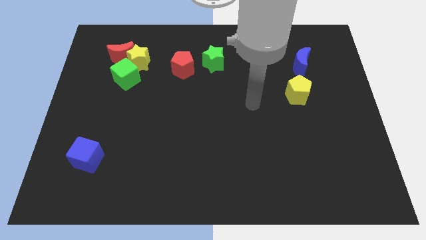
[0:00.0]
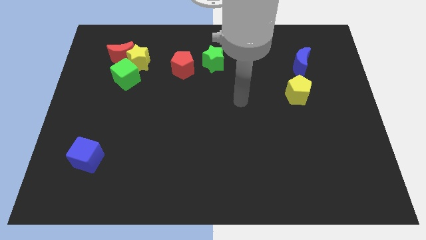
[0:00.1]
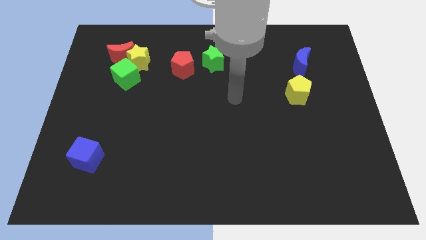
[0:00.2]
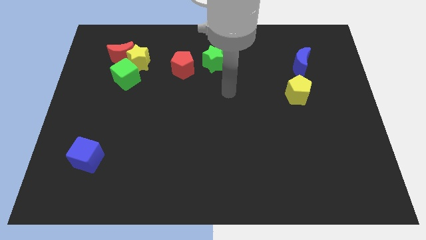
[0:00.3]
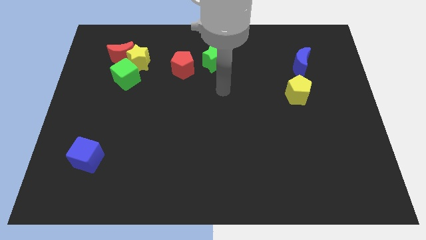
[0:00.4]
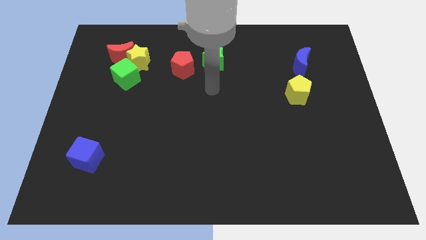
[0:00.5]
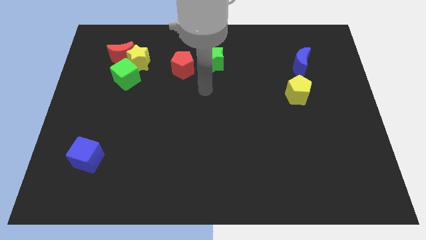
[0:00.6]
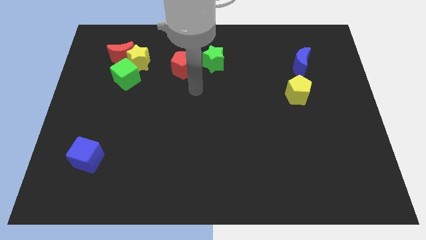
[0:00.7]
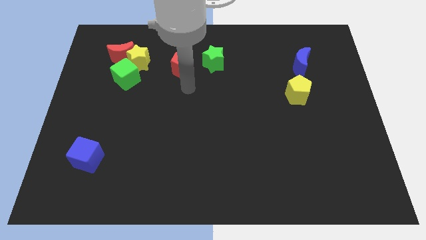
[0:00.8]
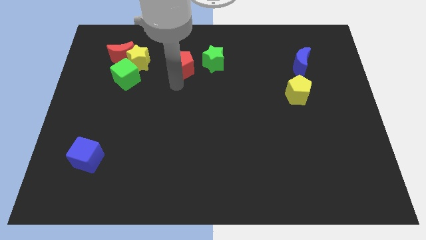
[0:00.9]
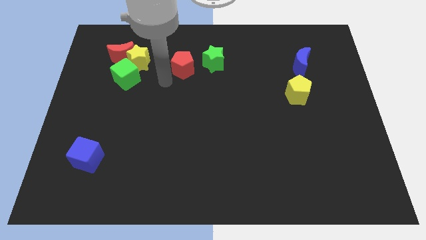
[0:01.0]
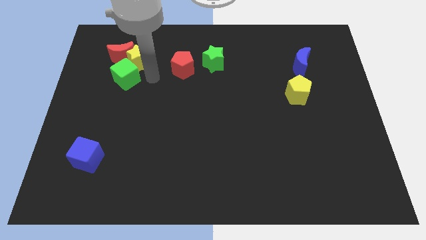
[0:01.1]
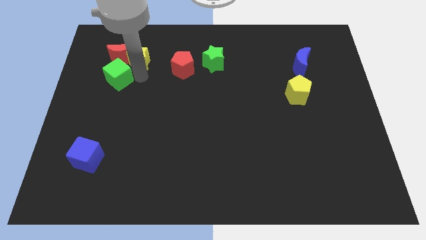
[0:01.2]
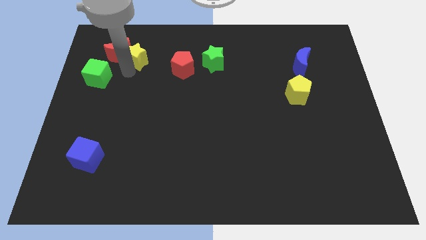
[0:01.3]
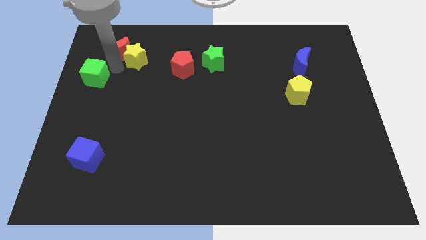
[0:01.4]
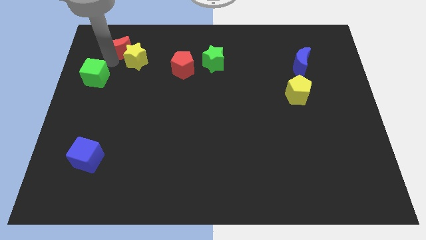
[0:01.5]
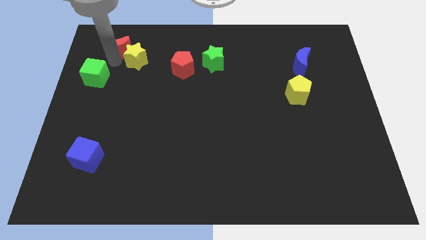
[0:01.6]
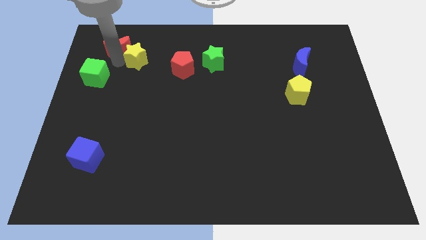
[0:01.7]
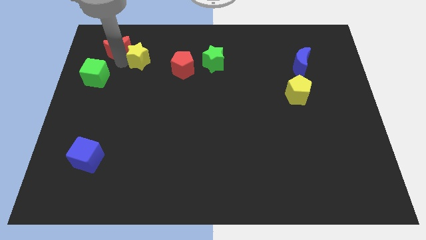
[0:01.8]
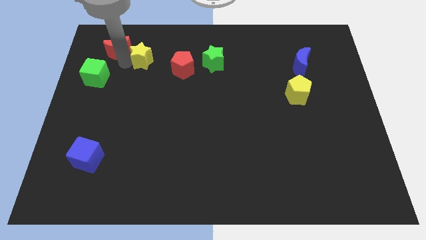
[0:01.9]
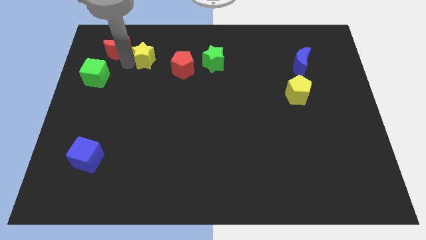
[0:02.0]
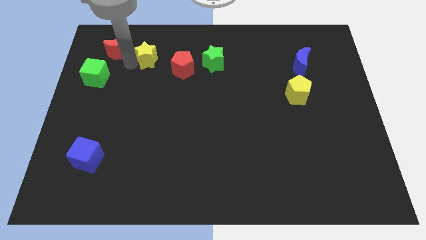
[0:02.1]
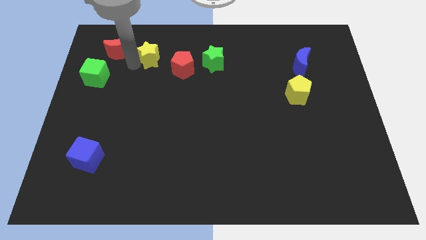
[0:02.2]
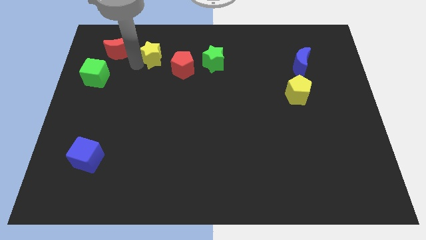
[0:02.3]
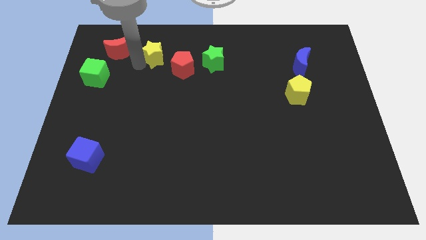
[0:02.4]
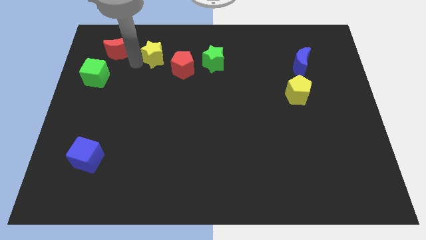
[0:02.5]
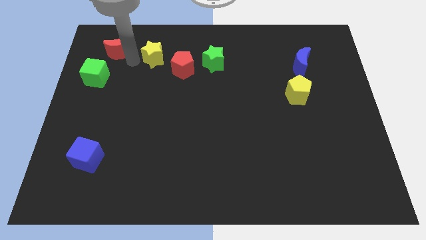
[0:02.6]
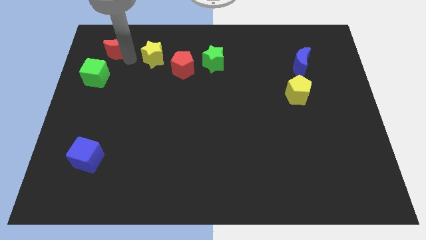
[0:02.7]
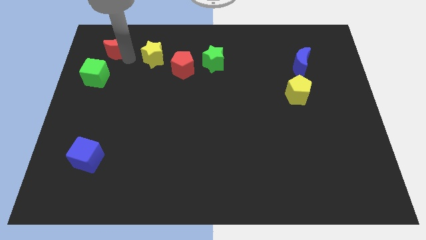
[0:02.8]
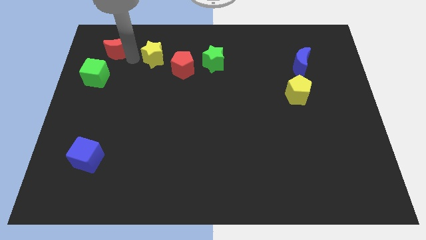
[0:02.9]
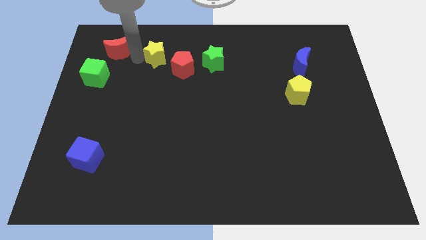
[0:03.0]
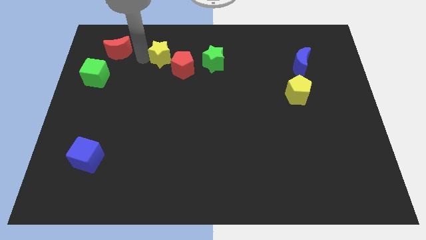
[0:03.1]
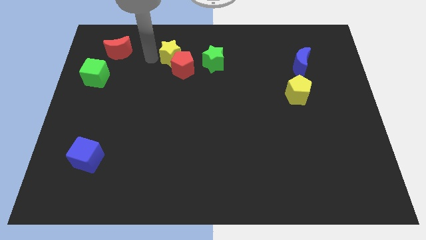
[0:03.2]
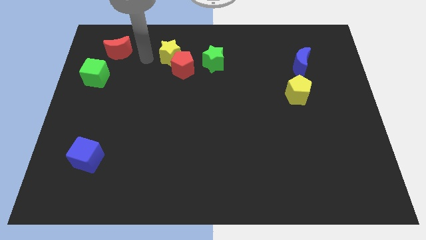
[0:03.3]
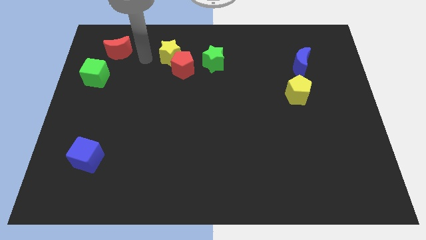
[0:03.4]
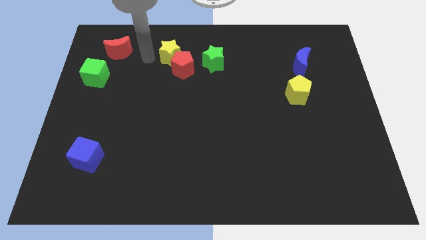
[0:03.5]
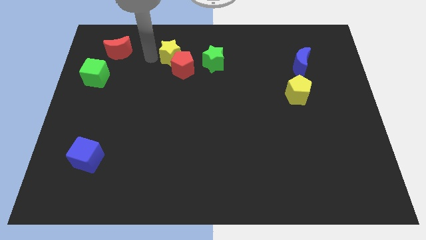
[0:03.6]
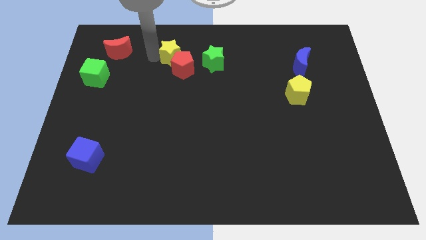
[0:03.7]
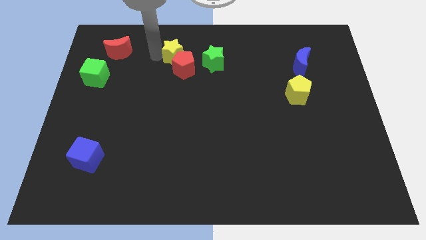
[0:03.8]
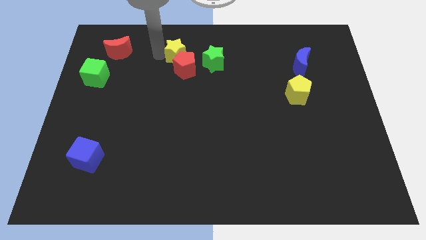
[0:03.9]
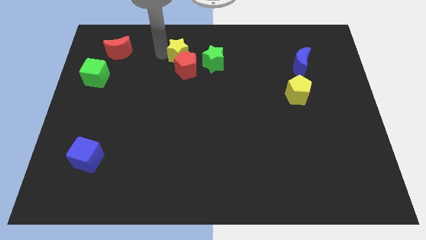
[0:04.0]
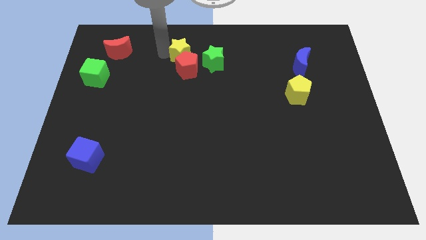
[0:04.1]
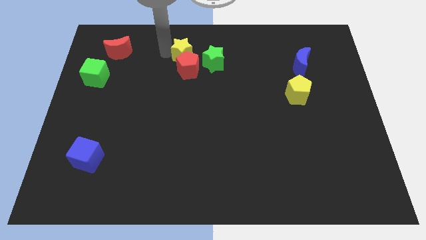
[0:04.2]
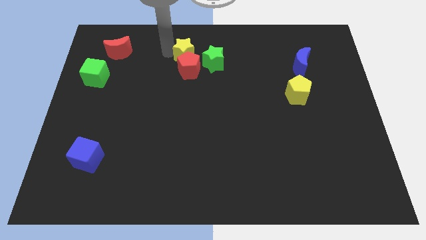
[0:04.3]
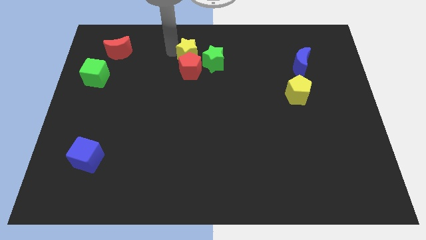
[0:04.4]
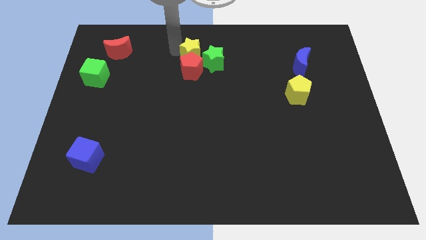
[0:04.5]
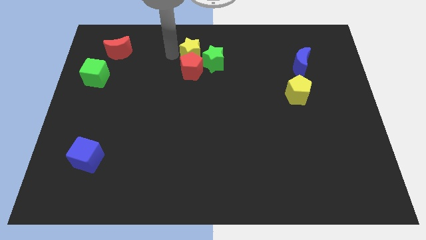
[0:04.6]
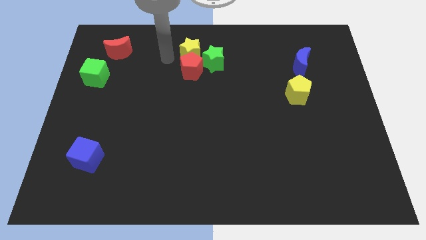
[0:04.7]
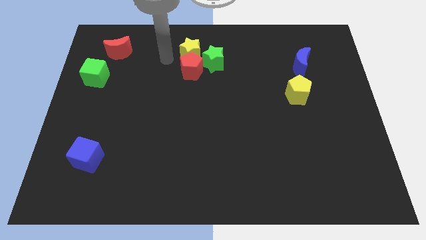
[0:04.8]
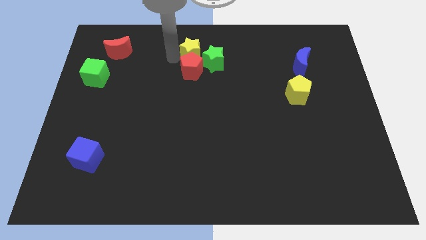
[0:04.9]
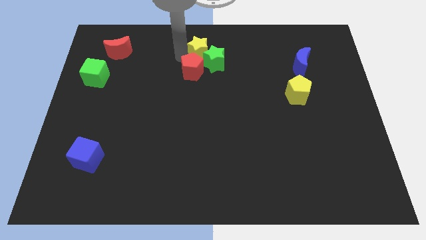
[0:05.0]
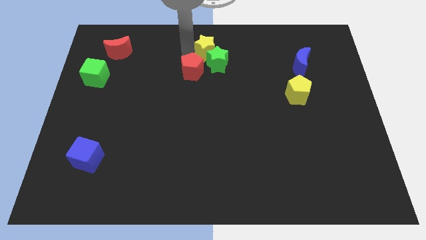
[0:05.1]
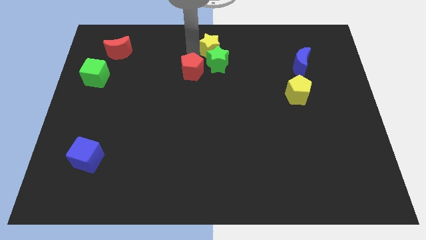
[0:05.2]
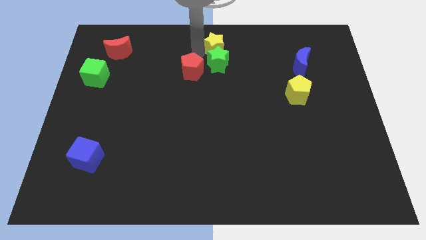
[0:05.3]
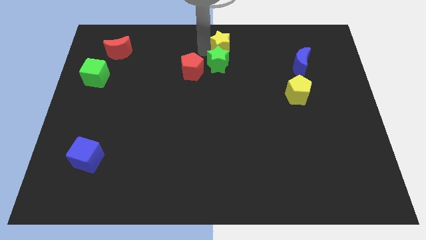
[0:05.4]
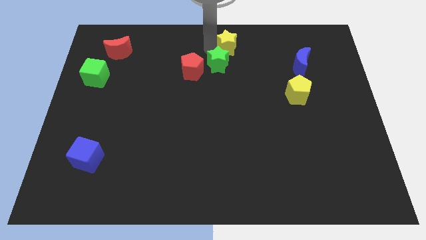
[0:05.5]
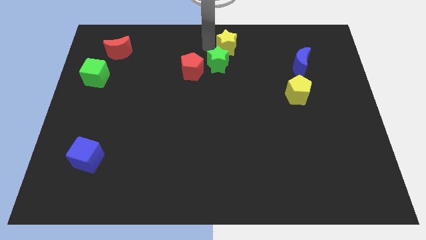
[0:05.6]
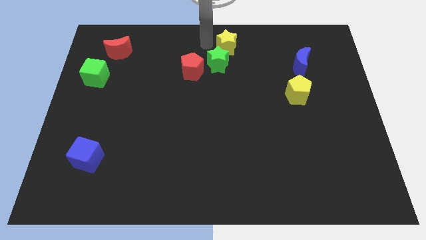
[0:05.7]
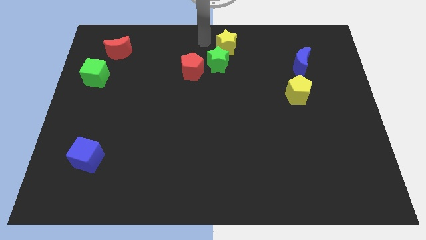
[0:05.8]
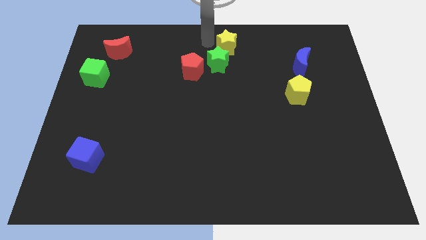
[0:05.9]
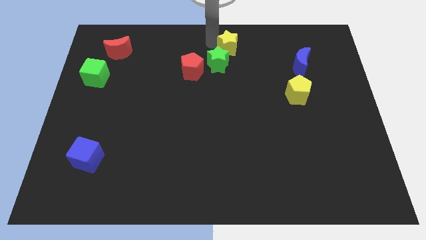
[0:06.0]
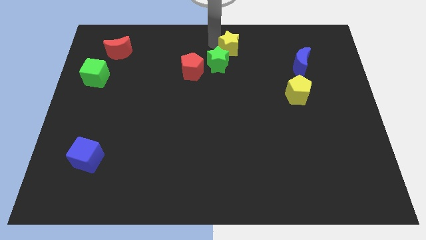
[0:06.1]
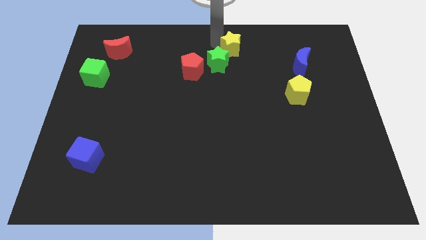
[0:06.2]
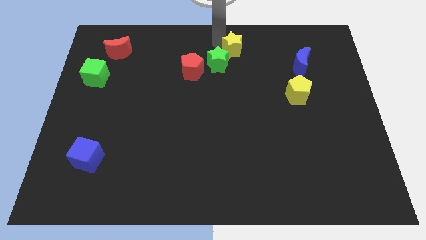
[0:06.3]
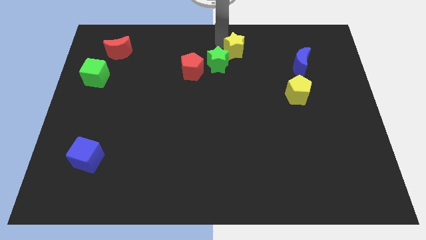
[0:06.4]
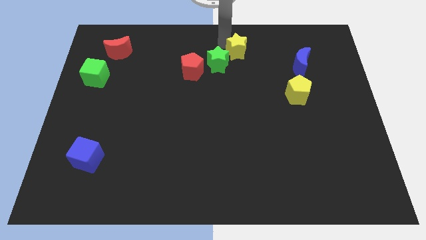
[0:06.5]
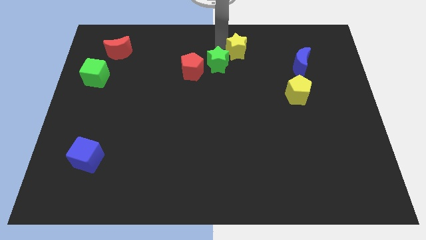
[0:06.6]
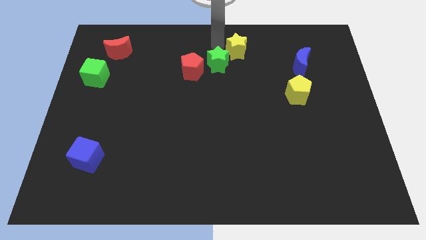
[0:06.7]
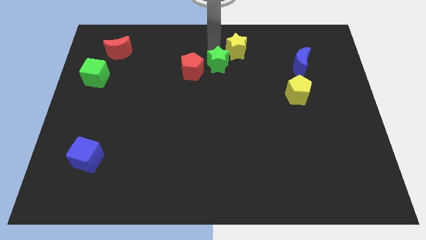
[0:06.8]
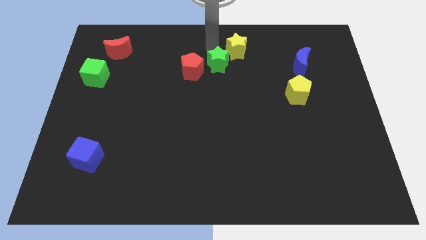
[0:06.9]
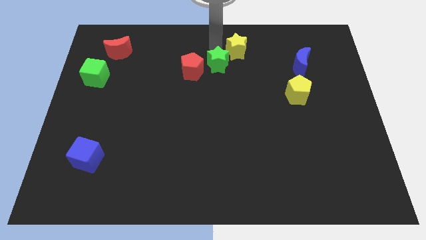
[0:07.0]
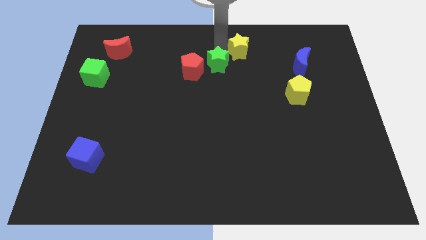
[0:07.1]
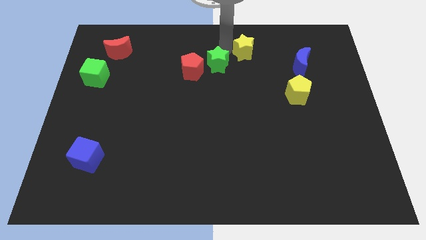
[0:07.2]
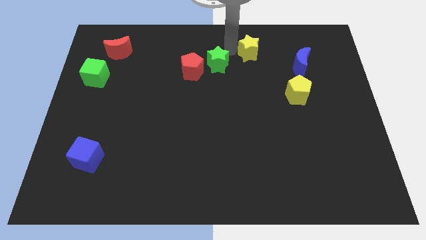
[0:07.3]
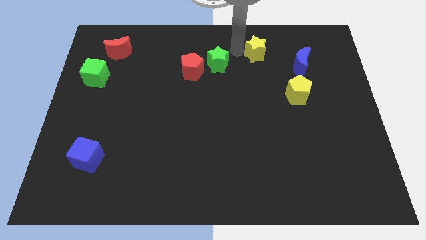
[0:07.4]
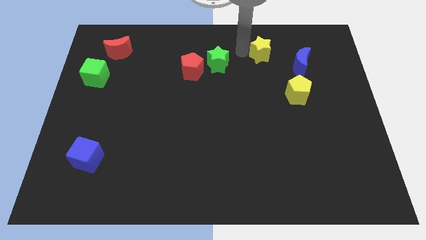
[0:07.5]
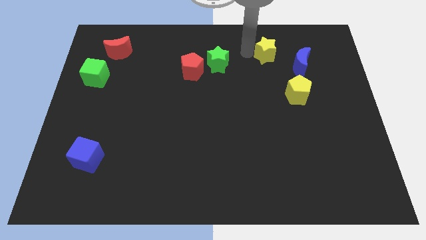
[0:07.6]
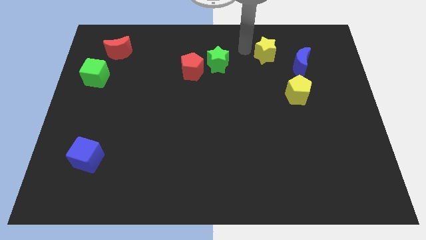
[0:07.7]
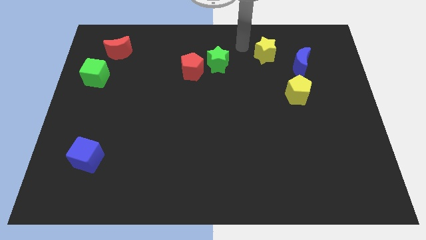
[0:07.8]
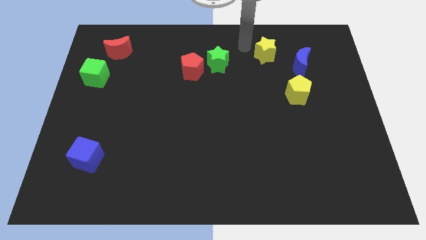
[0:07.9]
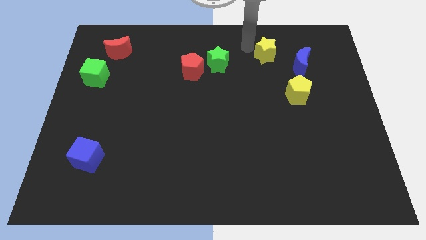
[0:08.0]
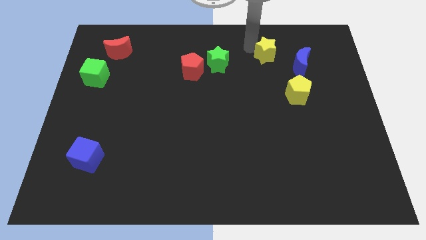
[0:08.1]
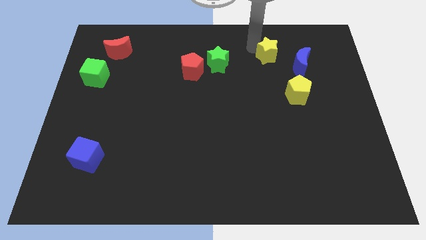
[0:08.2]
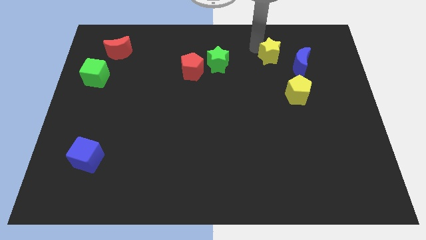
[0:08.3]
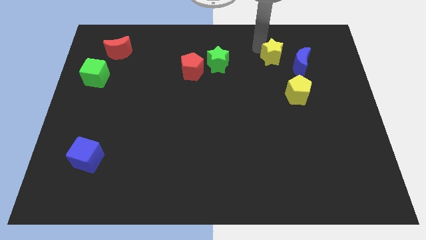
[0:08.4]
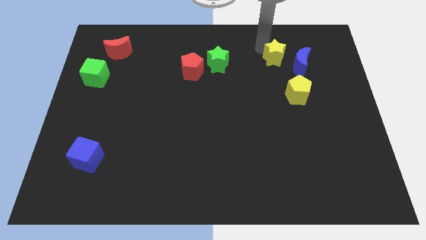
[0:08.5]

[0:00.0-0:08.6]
put the yellow star to the top of the yellow pentagon
